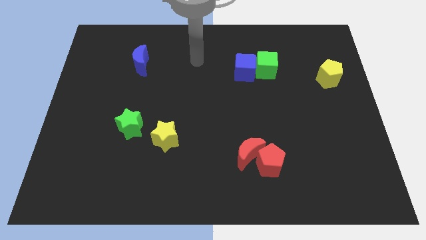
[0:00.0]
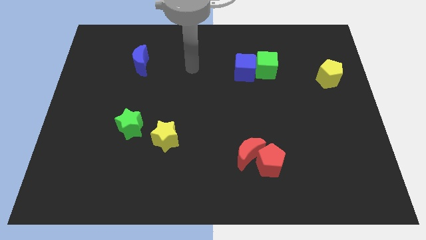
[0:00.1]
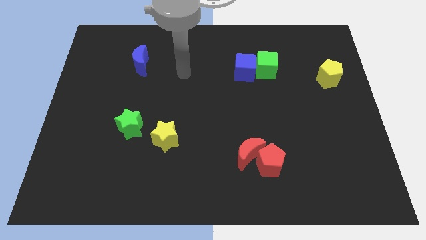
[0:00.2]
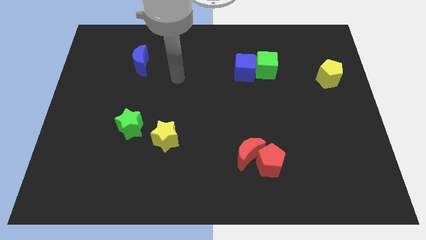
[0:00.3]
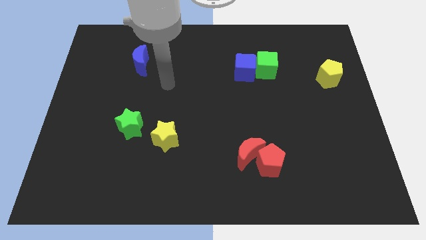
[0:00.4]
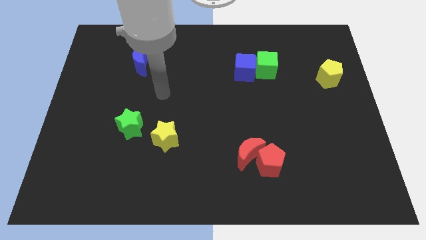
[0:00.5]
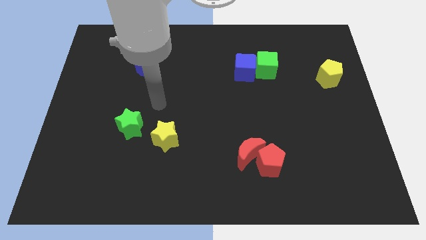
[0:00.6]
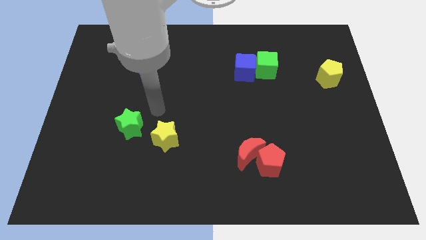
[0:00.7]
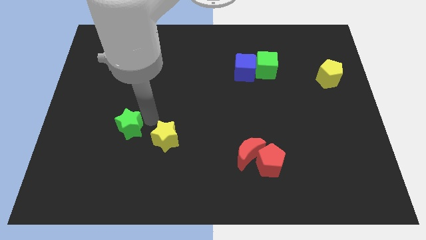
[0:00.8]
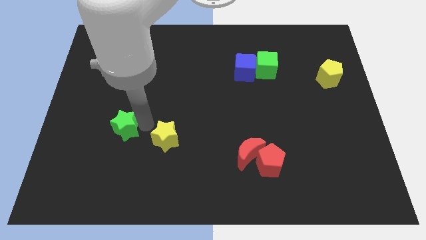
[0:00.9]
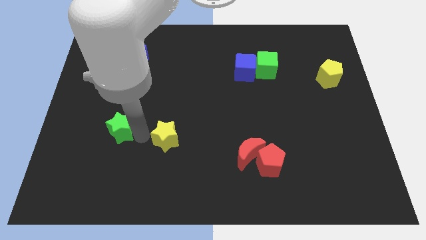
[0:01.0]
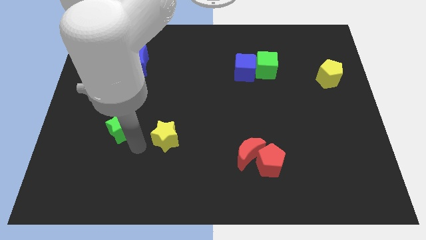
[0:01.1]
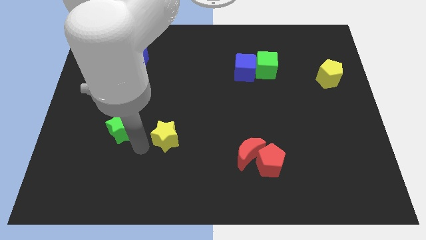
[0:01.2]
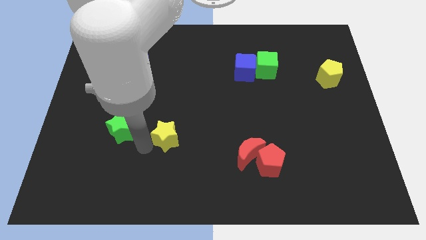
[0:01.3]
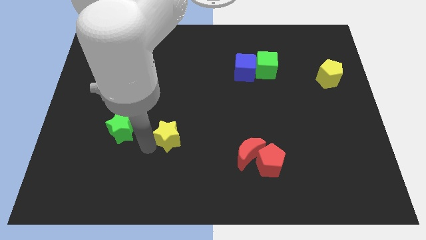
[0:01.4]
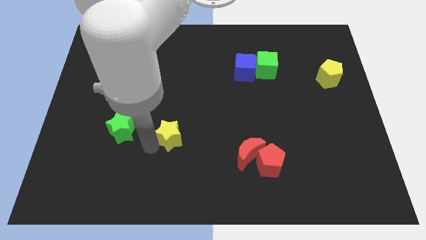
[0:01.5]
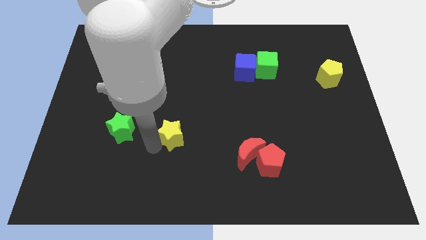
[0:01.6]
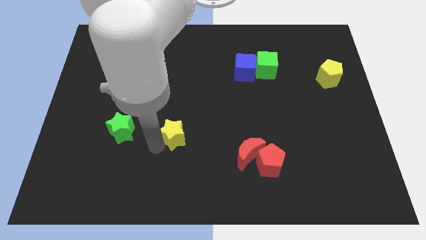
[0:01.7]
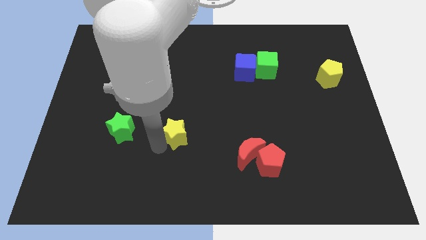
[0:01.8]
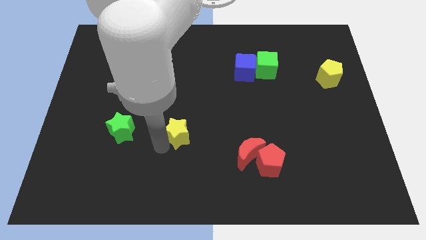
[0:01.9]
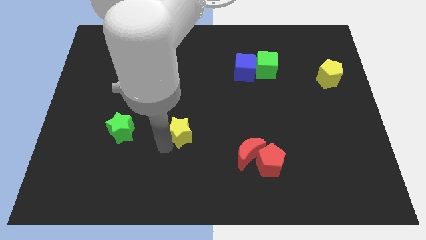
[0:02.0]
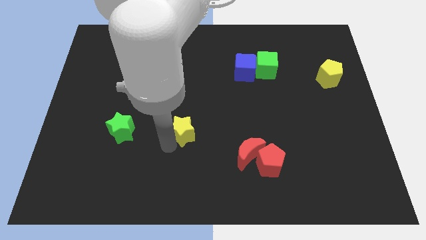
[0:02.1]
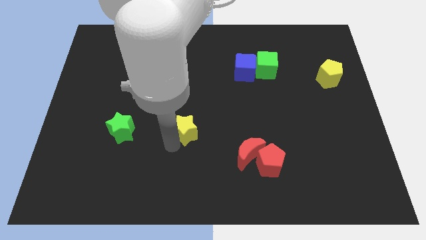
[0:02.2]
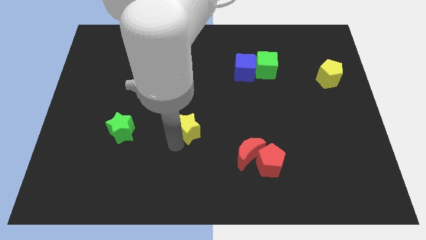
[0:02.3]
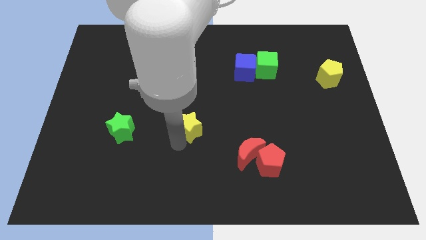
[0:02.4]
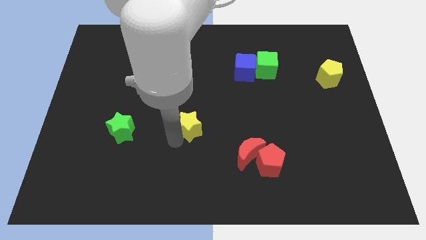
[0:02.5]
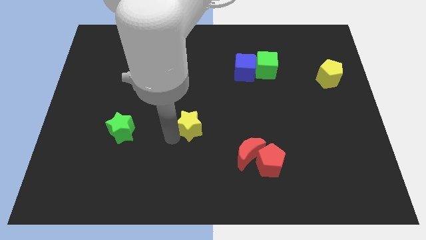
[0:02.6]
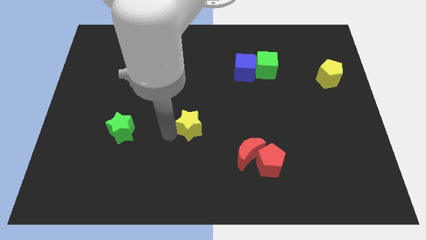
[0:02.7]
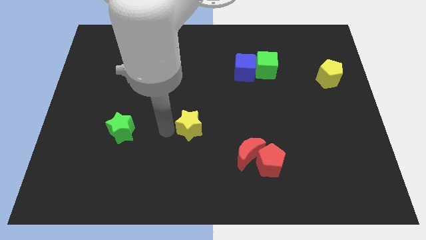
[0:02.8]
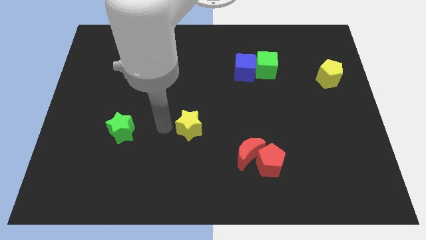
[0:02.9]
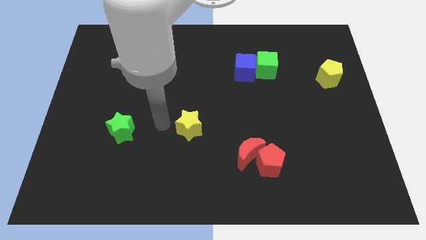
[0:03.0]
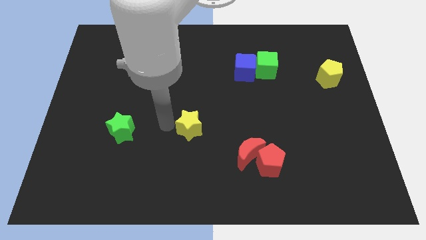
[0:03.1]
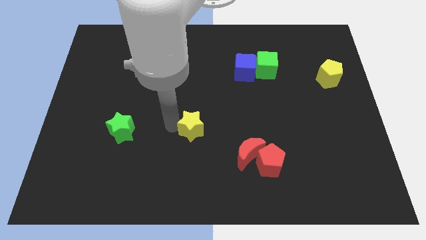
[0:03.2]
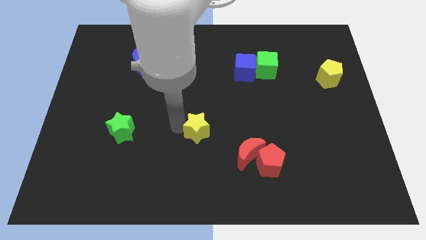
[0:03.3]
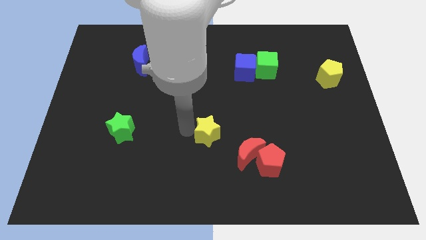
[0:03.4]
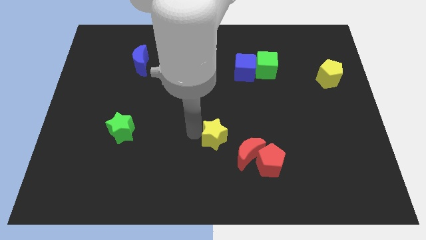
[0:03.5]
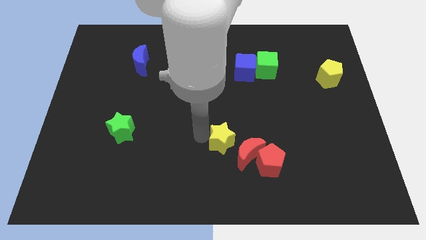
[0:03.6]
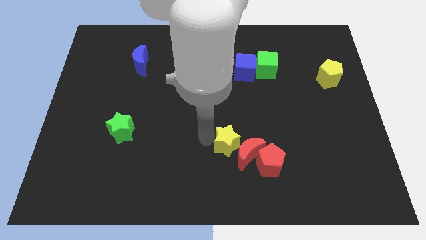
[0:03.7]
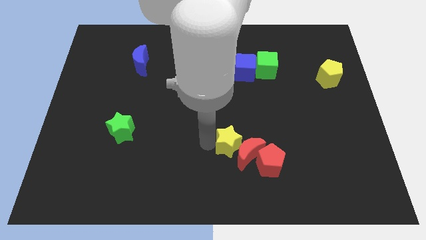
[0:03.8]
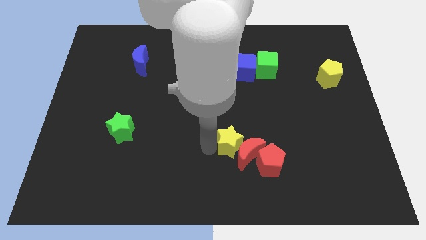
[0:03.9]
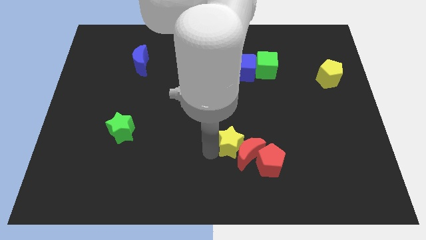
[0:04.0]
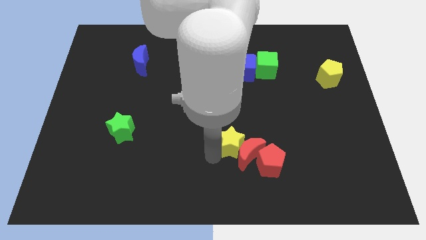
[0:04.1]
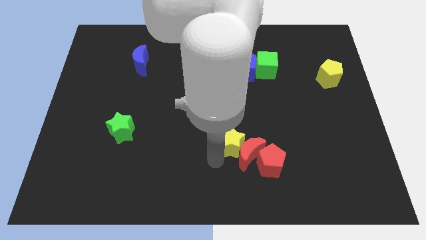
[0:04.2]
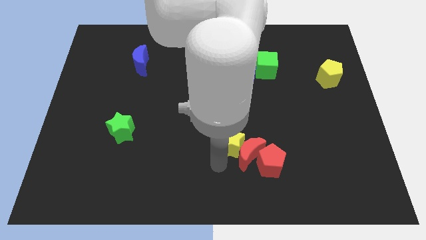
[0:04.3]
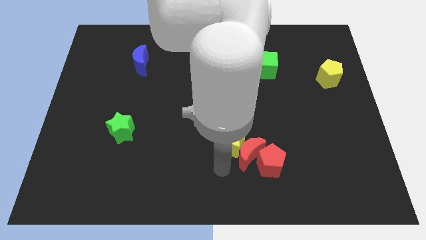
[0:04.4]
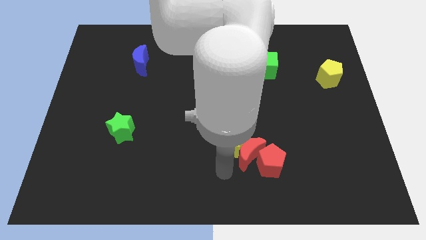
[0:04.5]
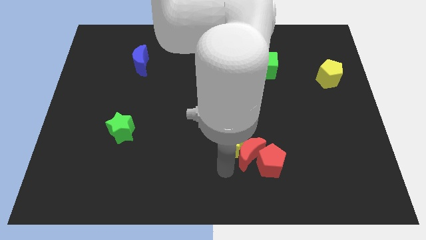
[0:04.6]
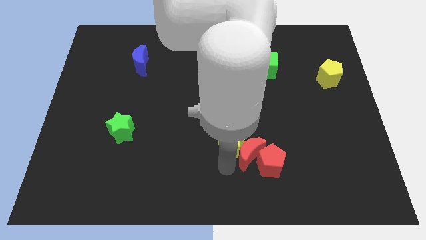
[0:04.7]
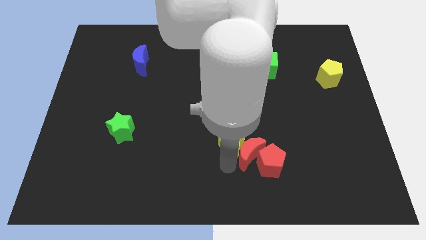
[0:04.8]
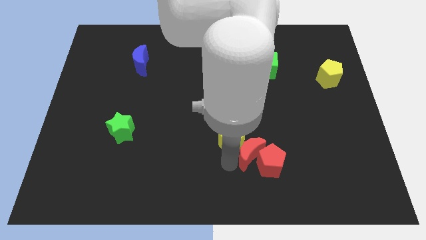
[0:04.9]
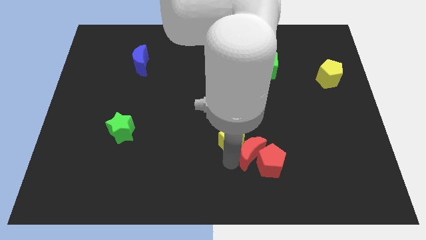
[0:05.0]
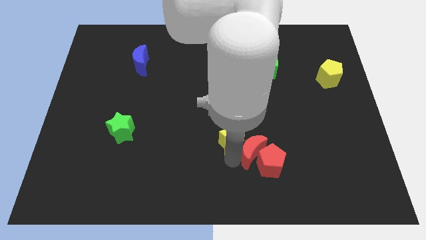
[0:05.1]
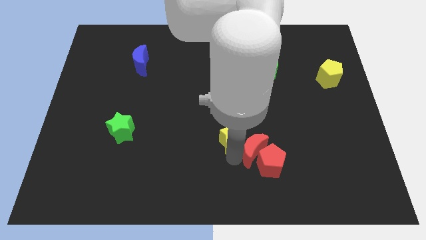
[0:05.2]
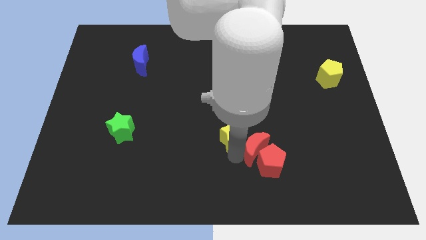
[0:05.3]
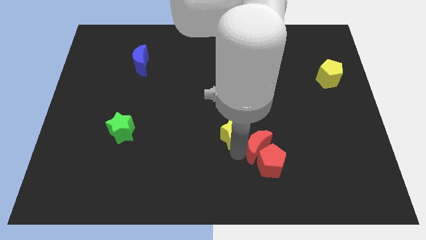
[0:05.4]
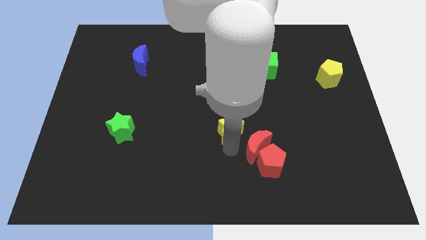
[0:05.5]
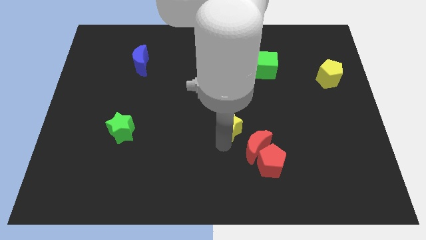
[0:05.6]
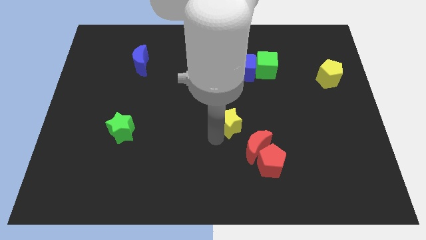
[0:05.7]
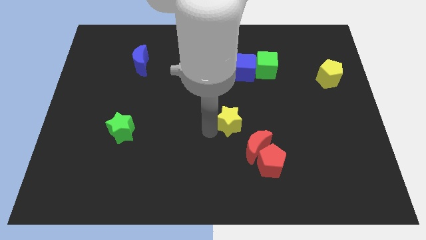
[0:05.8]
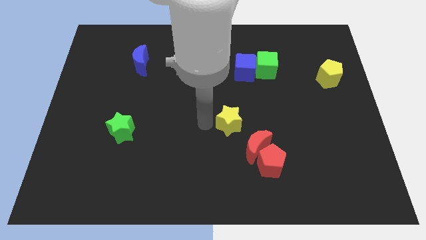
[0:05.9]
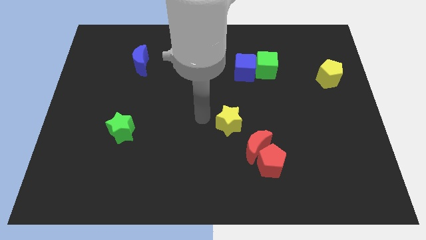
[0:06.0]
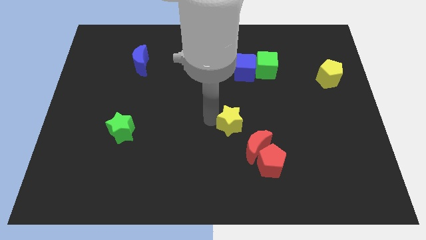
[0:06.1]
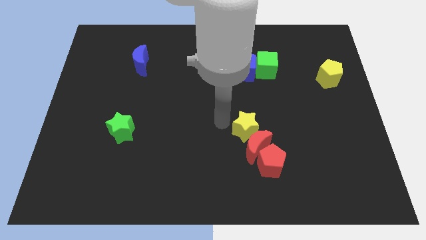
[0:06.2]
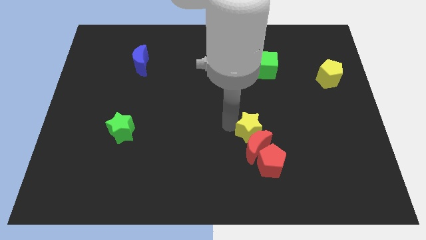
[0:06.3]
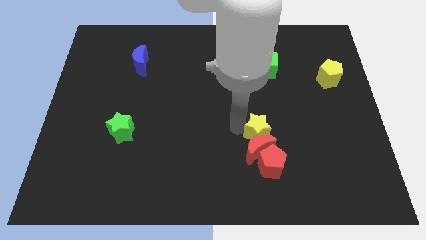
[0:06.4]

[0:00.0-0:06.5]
push the yellow star right

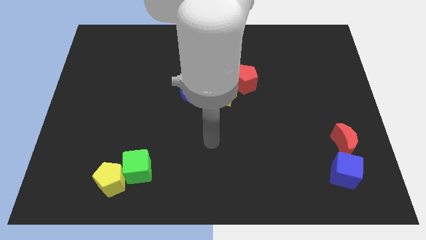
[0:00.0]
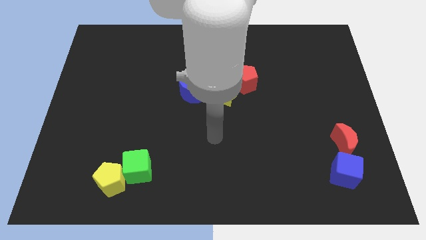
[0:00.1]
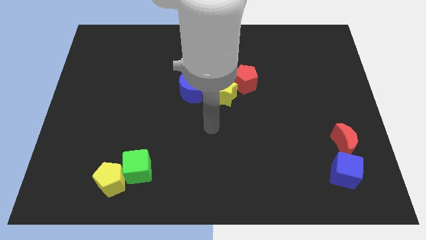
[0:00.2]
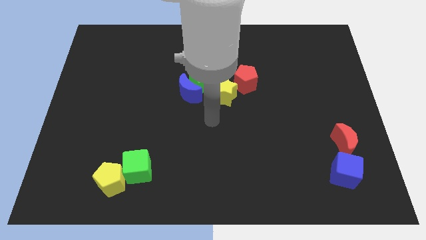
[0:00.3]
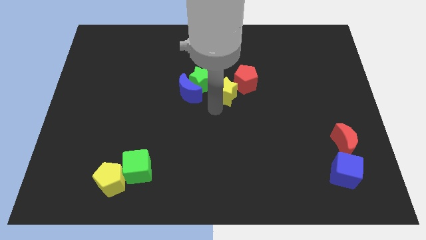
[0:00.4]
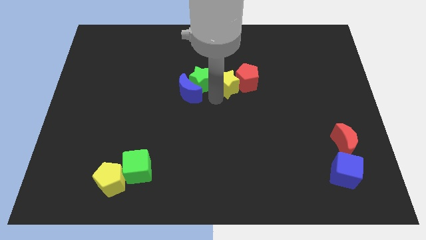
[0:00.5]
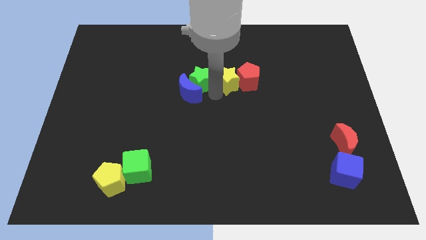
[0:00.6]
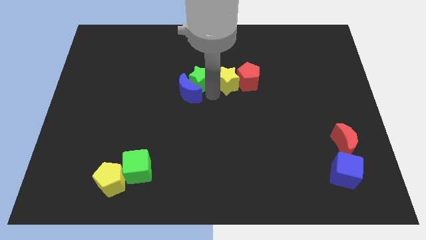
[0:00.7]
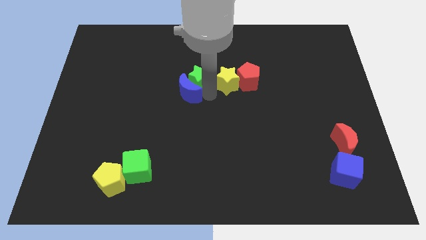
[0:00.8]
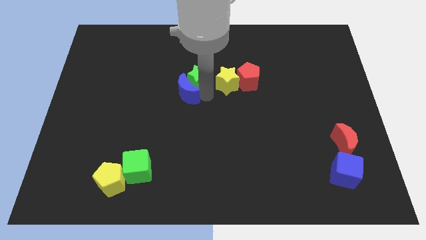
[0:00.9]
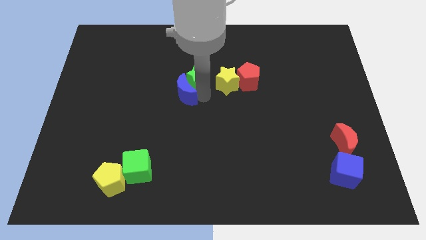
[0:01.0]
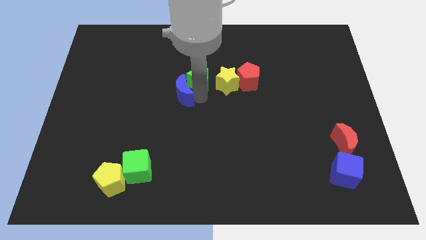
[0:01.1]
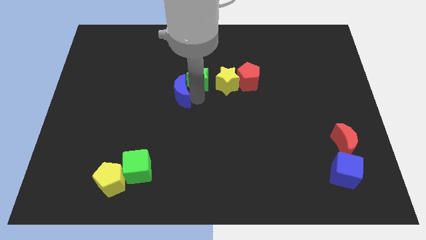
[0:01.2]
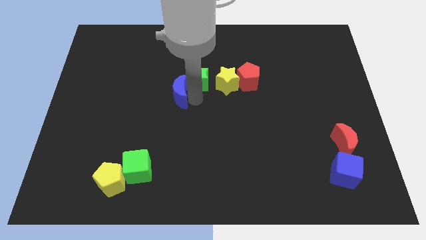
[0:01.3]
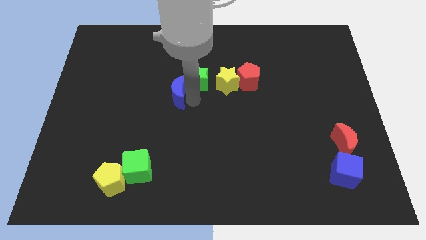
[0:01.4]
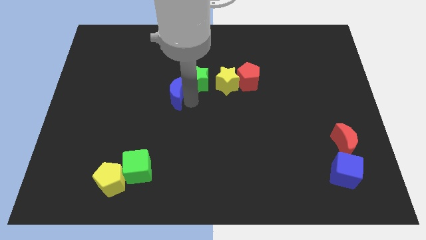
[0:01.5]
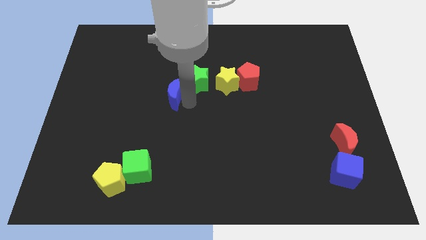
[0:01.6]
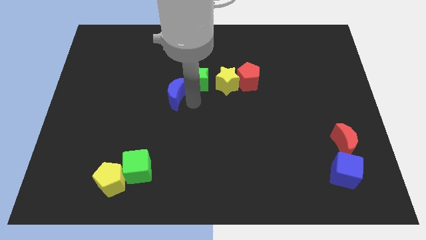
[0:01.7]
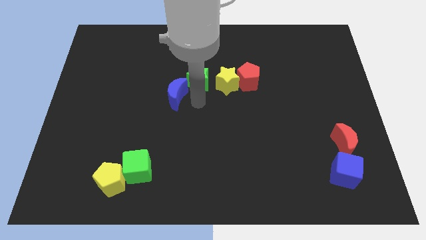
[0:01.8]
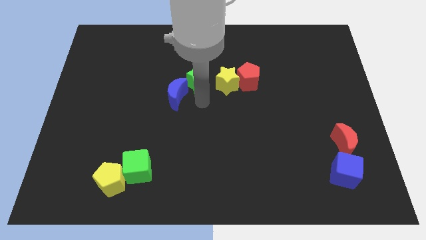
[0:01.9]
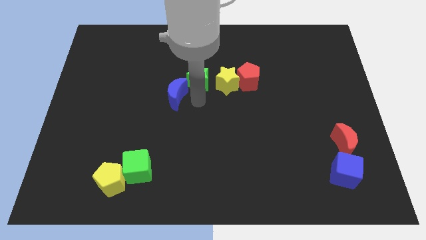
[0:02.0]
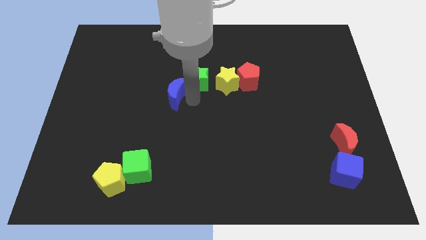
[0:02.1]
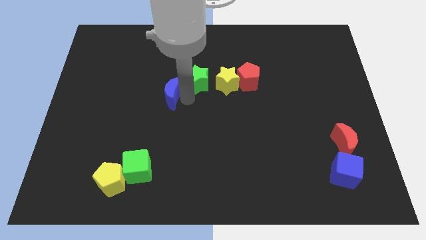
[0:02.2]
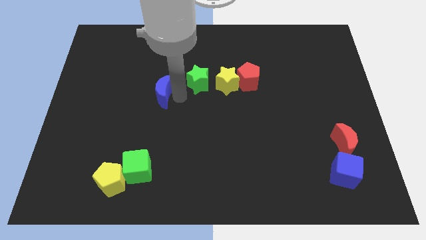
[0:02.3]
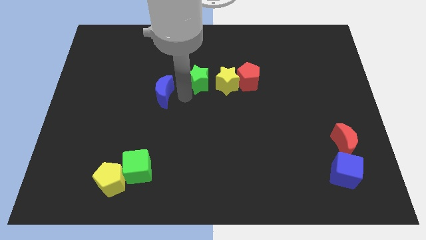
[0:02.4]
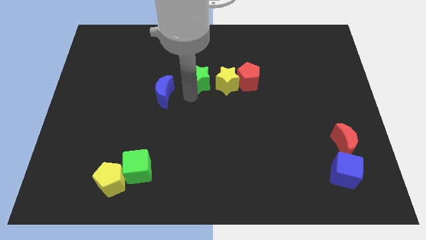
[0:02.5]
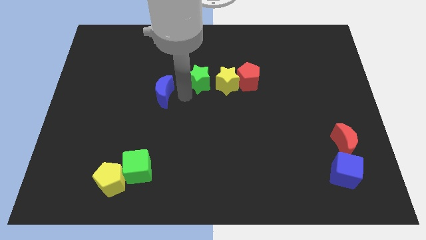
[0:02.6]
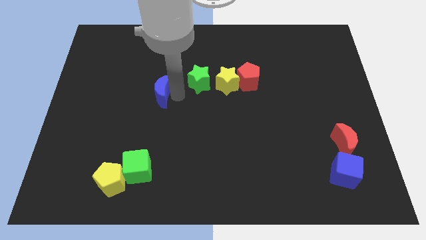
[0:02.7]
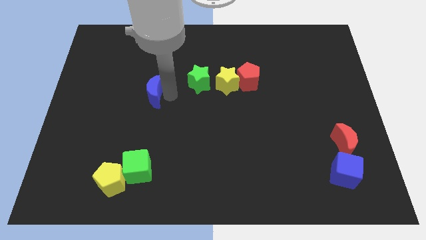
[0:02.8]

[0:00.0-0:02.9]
slightly slide the blue moon left
